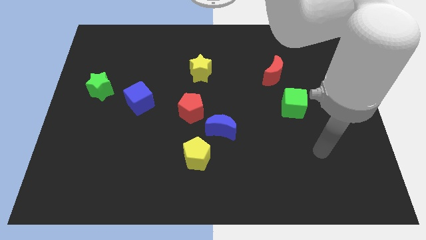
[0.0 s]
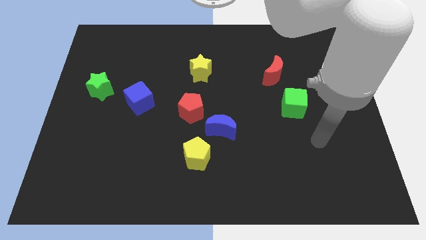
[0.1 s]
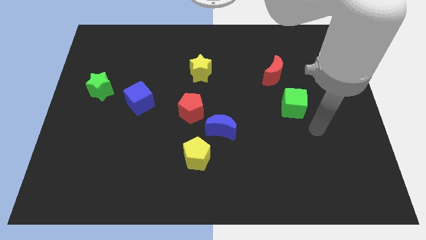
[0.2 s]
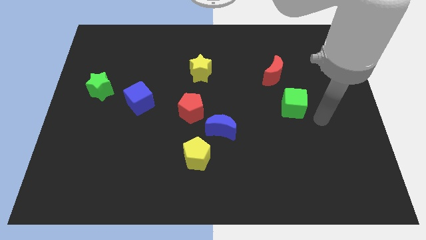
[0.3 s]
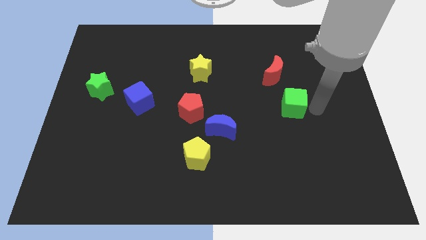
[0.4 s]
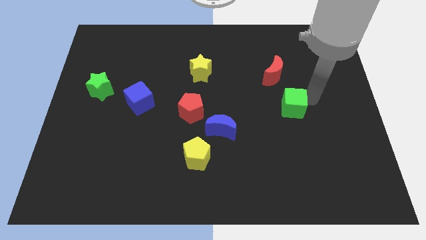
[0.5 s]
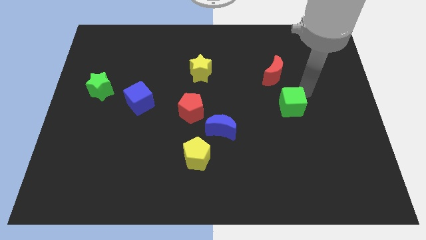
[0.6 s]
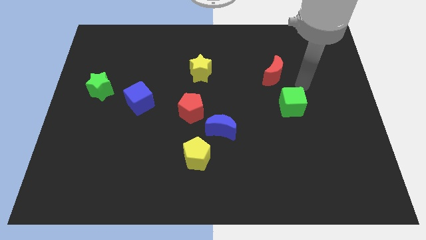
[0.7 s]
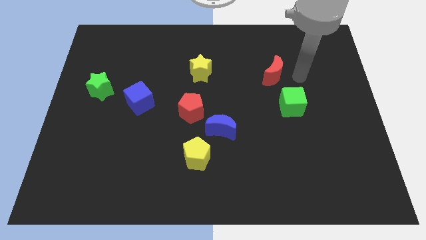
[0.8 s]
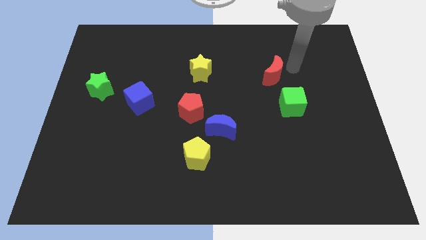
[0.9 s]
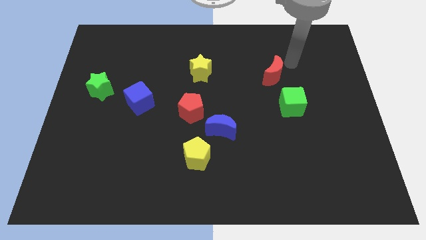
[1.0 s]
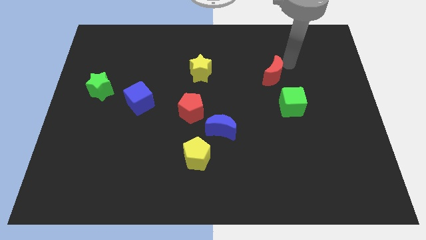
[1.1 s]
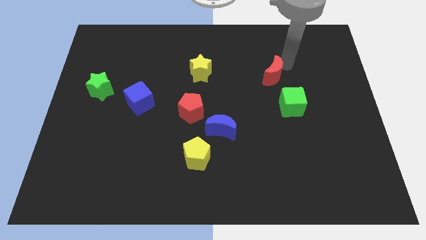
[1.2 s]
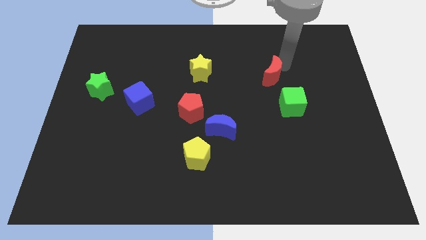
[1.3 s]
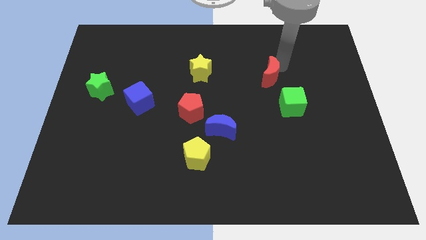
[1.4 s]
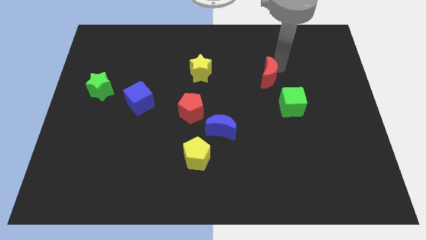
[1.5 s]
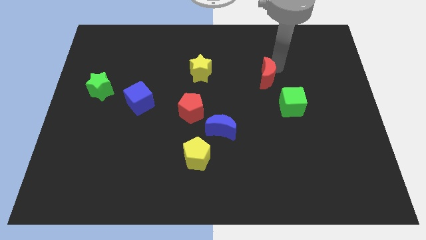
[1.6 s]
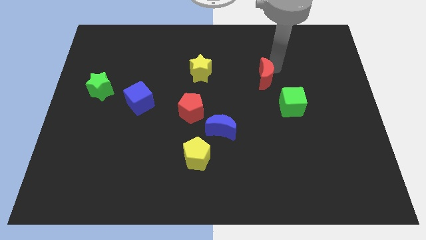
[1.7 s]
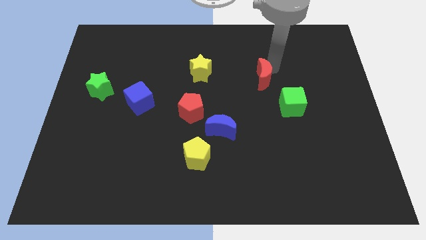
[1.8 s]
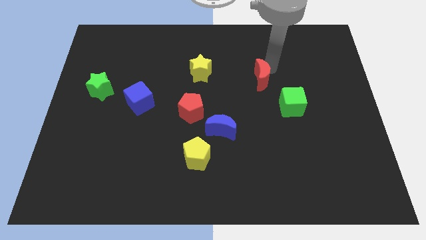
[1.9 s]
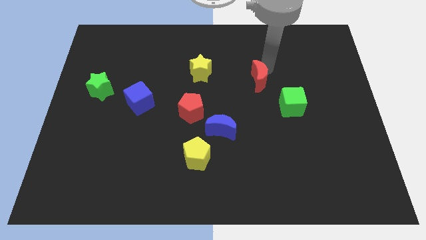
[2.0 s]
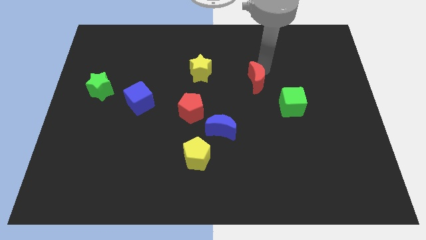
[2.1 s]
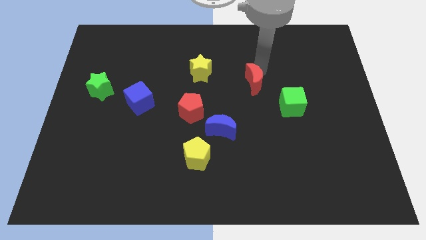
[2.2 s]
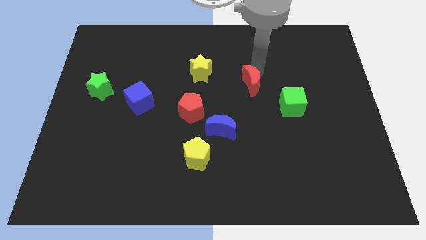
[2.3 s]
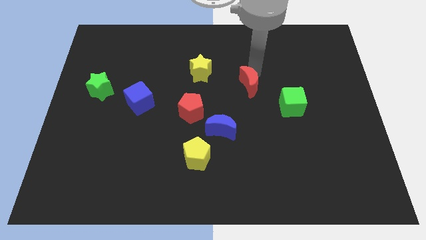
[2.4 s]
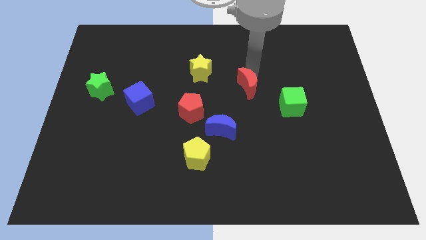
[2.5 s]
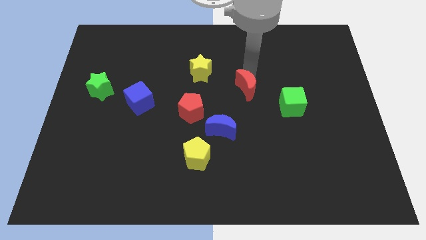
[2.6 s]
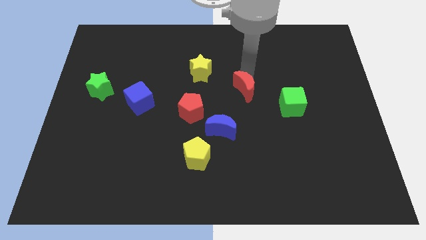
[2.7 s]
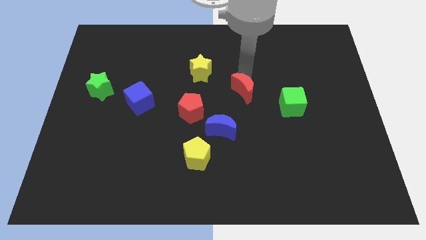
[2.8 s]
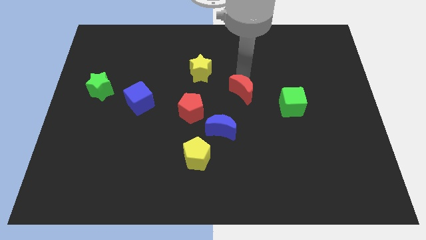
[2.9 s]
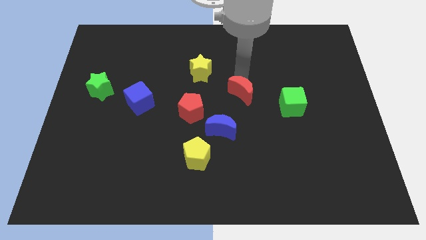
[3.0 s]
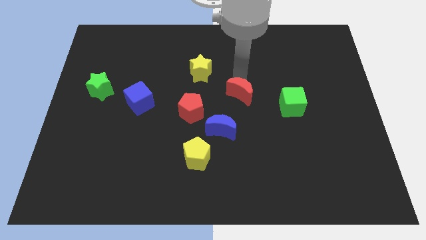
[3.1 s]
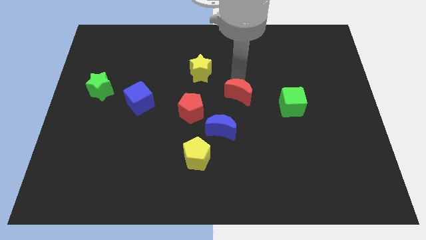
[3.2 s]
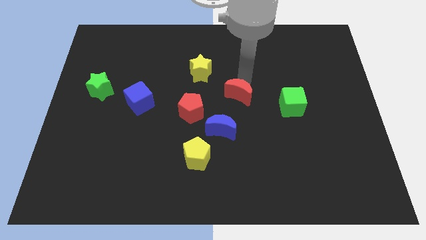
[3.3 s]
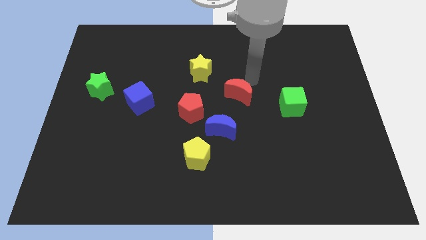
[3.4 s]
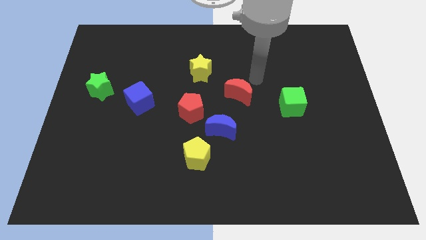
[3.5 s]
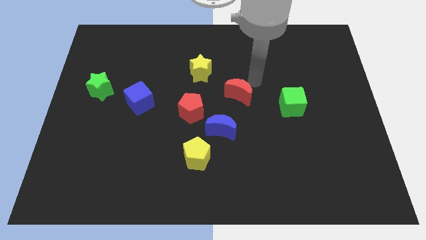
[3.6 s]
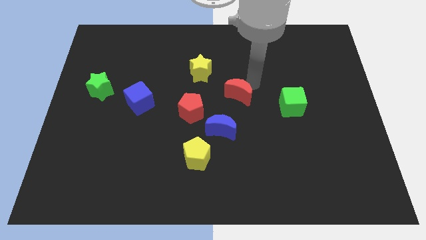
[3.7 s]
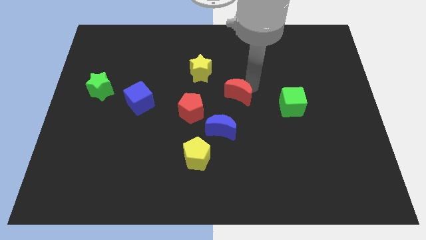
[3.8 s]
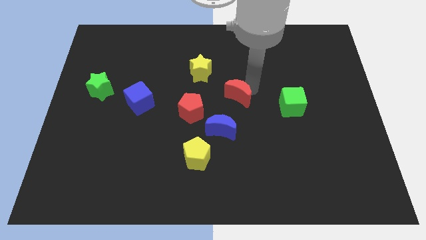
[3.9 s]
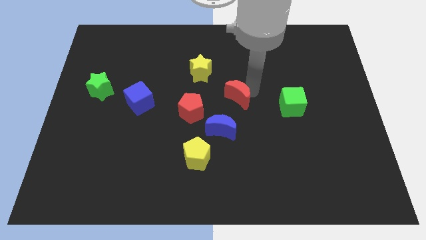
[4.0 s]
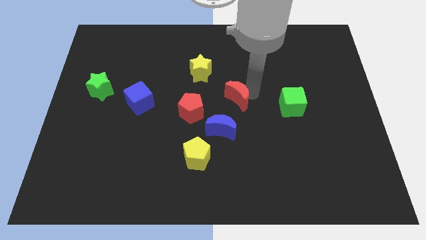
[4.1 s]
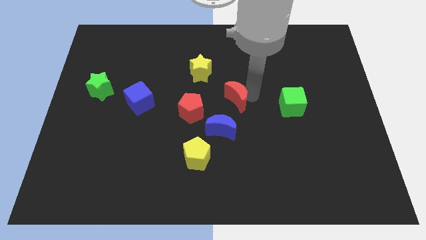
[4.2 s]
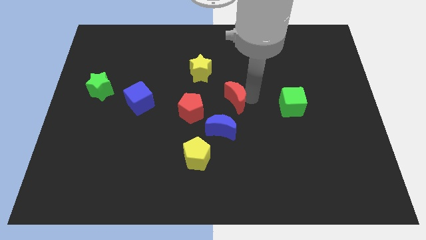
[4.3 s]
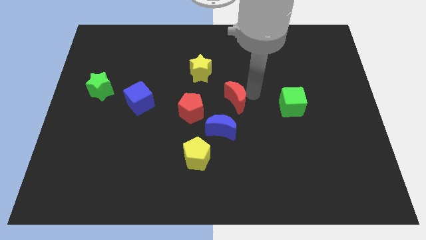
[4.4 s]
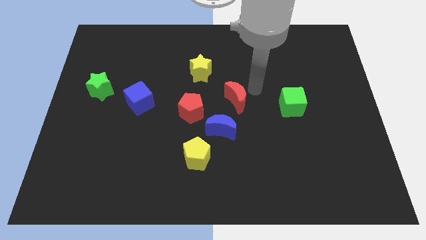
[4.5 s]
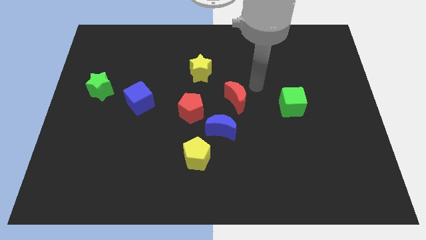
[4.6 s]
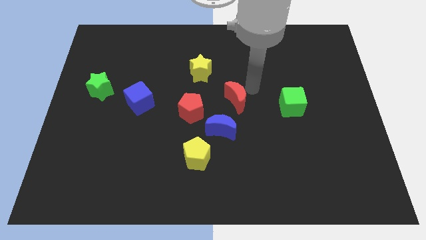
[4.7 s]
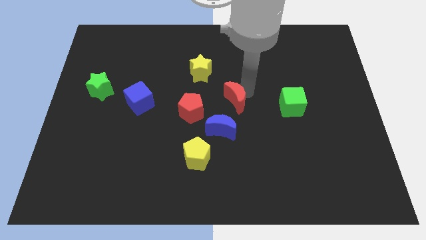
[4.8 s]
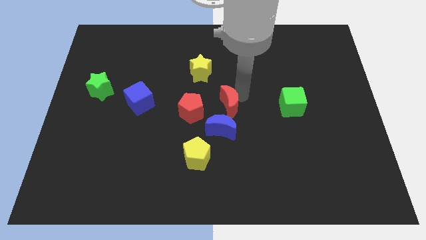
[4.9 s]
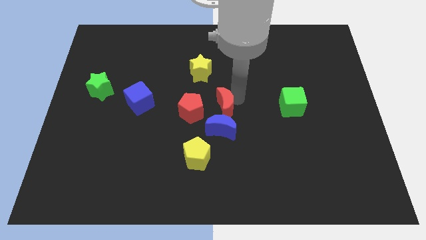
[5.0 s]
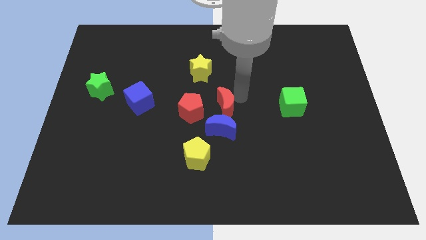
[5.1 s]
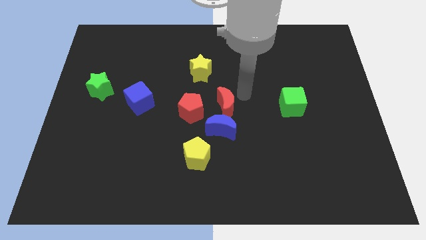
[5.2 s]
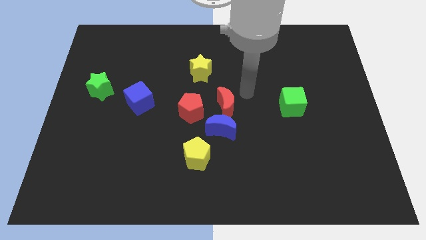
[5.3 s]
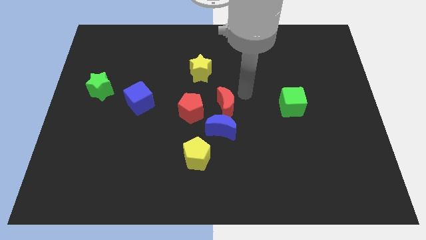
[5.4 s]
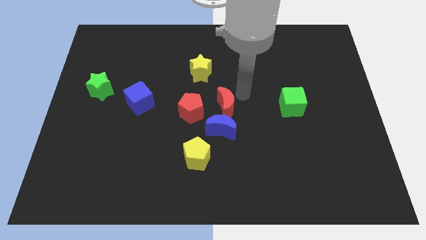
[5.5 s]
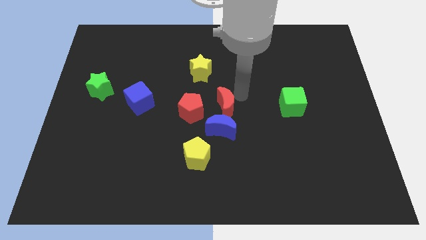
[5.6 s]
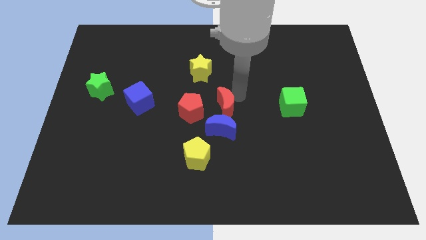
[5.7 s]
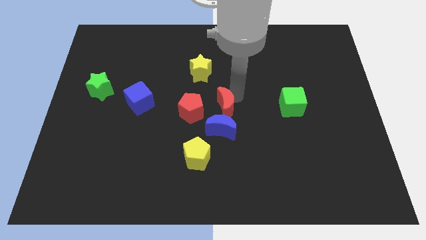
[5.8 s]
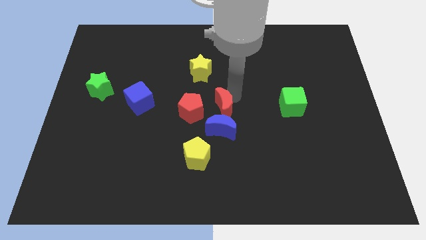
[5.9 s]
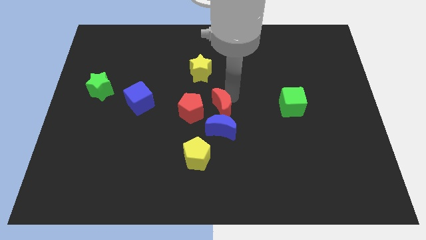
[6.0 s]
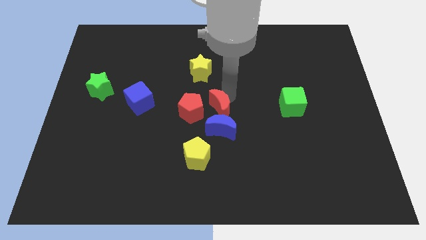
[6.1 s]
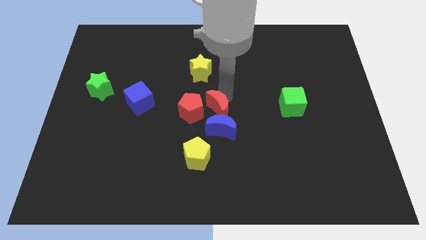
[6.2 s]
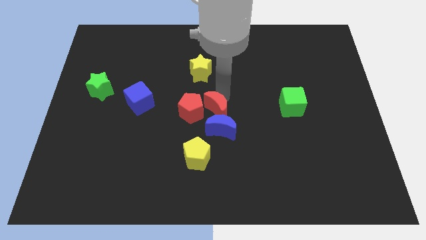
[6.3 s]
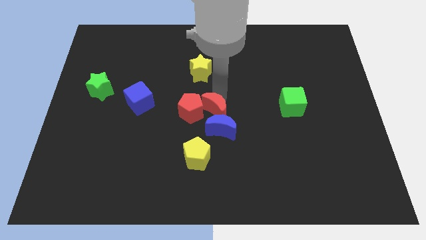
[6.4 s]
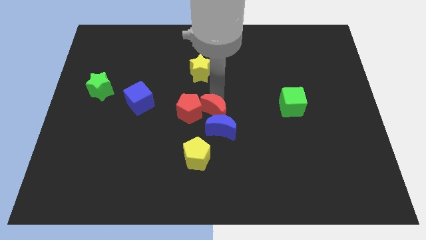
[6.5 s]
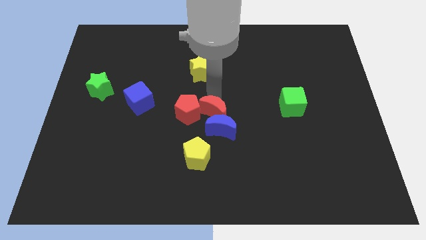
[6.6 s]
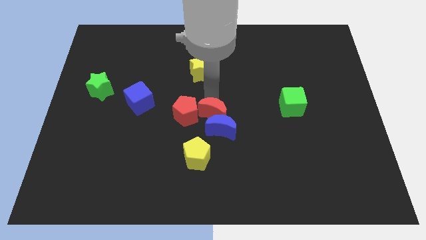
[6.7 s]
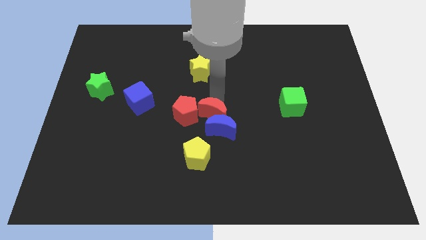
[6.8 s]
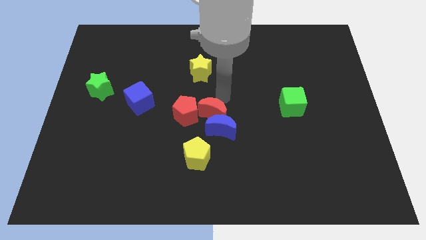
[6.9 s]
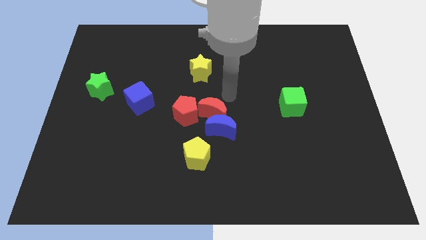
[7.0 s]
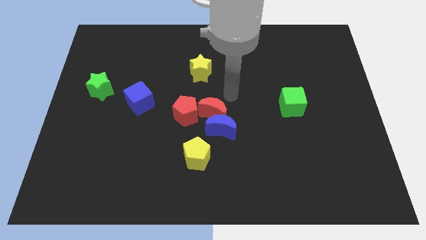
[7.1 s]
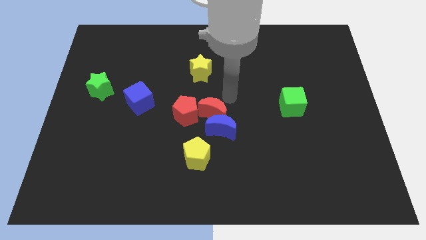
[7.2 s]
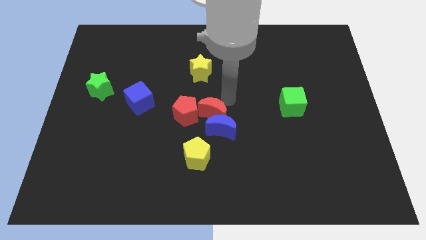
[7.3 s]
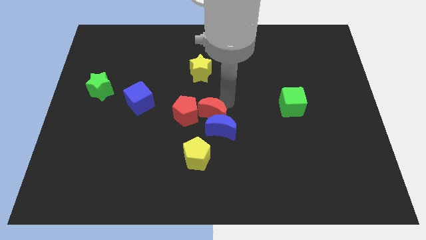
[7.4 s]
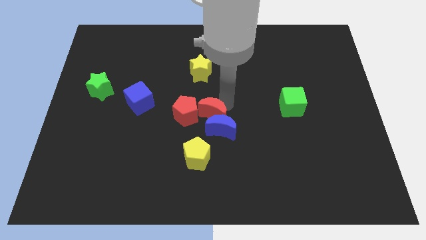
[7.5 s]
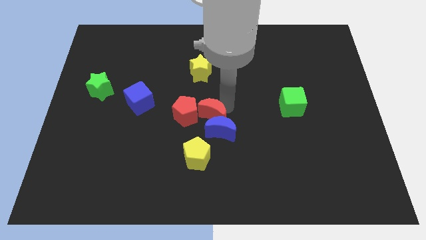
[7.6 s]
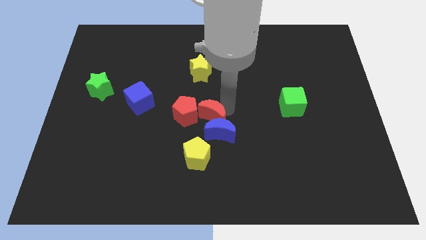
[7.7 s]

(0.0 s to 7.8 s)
slide the red moon down and to the left diagonally

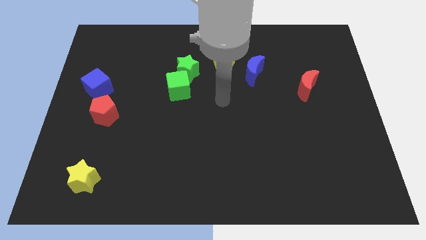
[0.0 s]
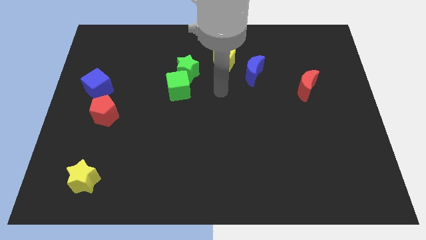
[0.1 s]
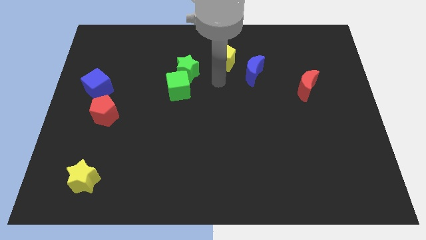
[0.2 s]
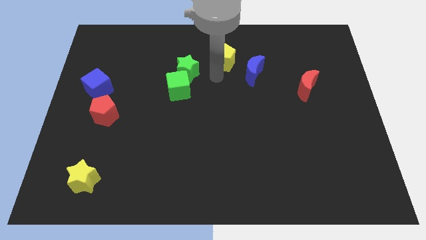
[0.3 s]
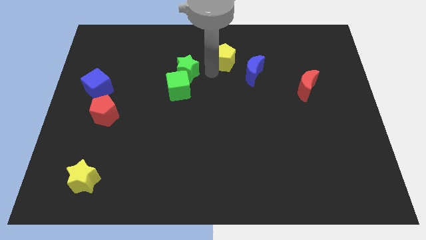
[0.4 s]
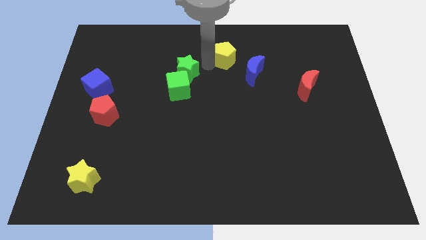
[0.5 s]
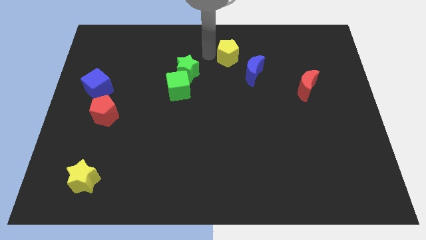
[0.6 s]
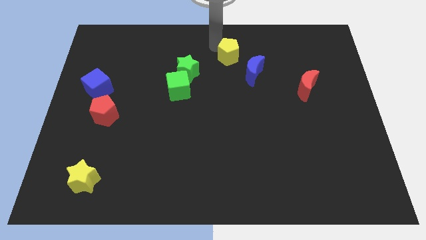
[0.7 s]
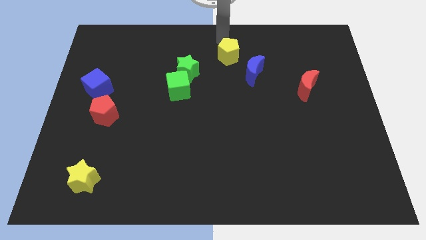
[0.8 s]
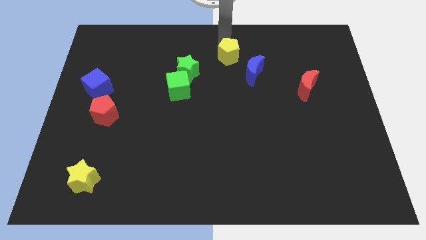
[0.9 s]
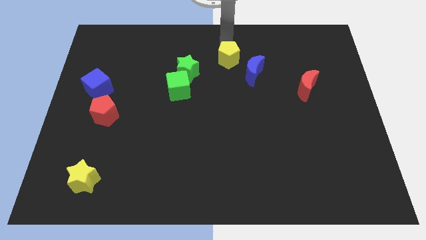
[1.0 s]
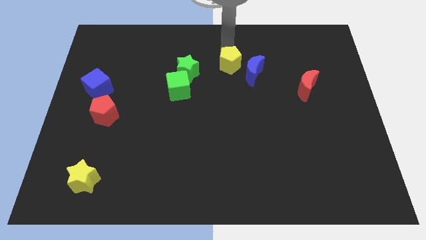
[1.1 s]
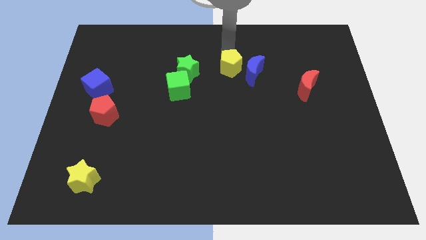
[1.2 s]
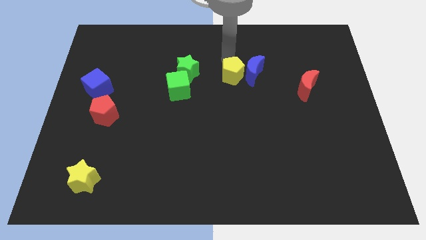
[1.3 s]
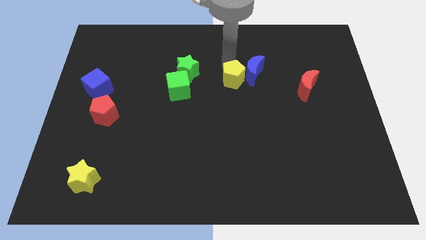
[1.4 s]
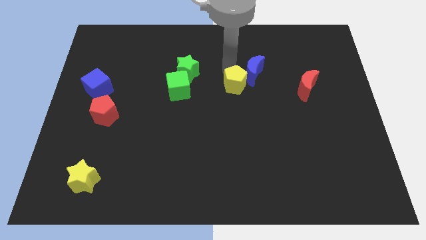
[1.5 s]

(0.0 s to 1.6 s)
slightly move the yellow pentagon down and then to the right
